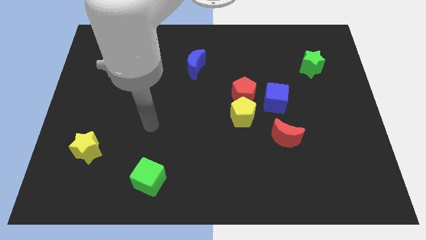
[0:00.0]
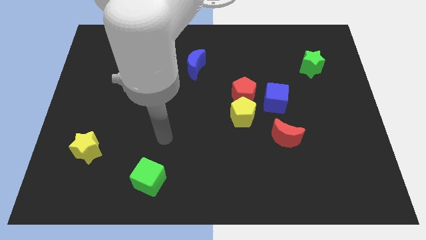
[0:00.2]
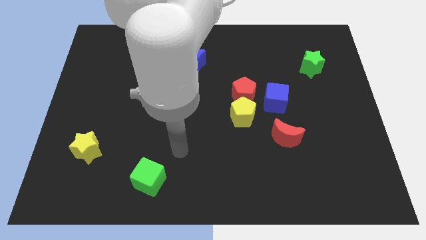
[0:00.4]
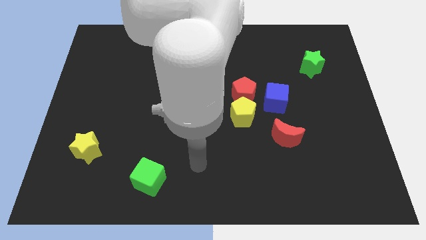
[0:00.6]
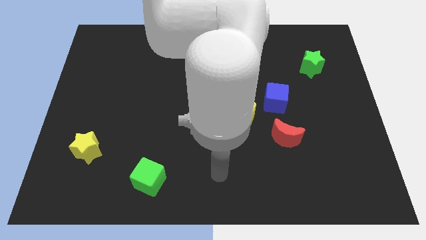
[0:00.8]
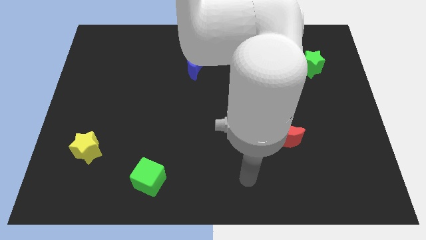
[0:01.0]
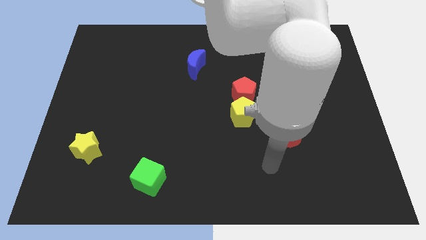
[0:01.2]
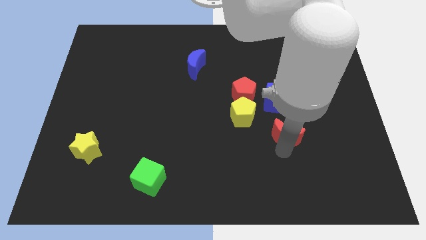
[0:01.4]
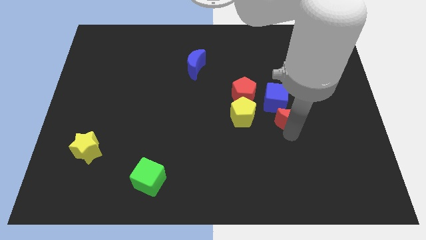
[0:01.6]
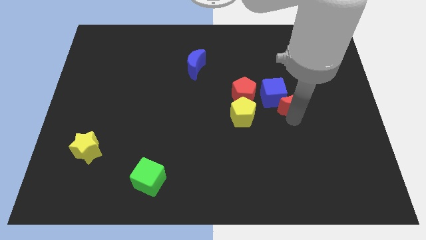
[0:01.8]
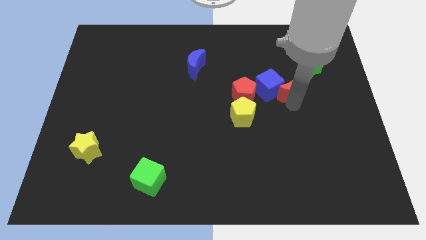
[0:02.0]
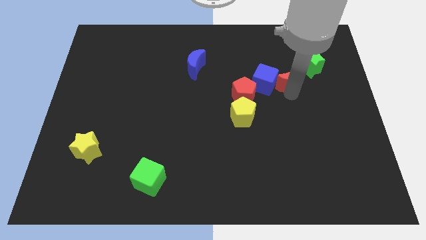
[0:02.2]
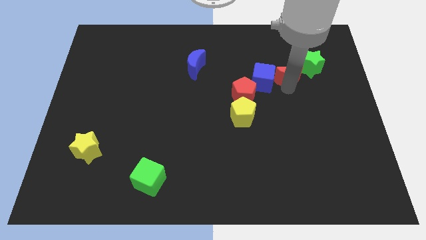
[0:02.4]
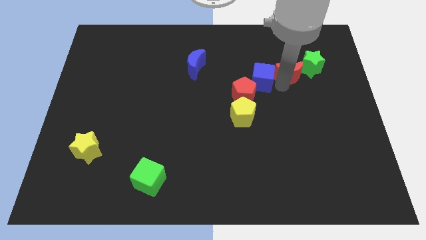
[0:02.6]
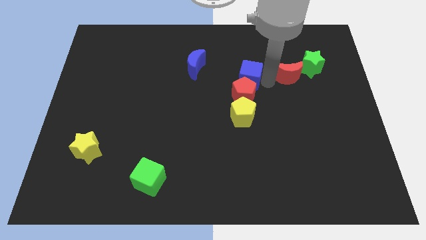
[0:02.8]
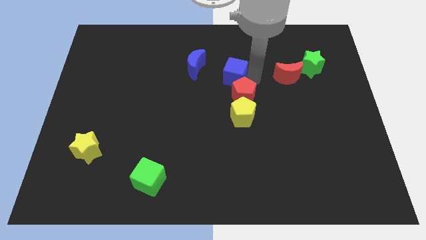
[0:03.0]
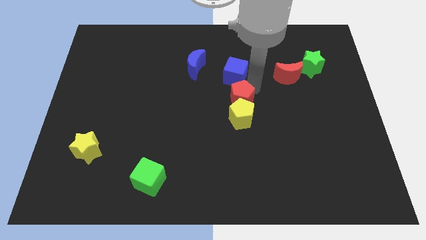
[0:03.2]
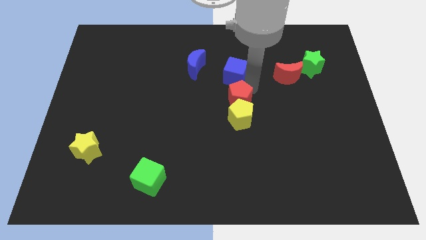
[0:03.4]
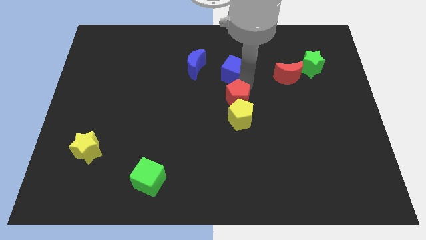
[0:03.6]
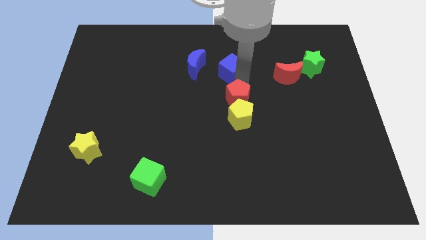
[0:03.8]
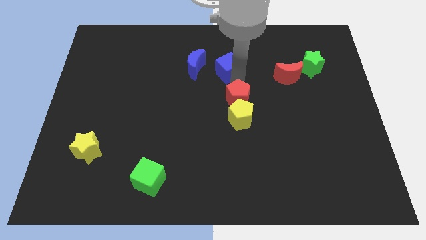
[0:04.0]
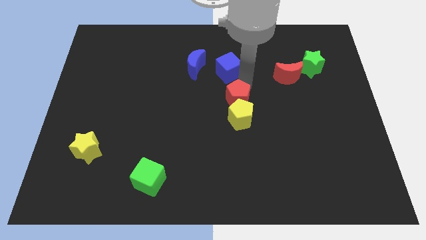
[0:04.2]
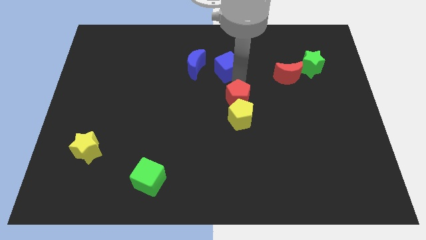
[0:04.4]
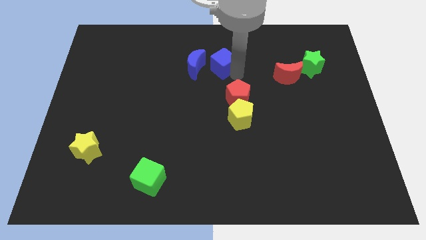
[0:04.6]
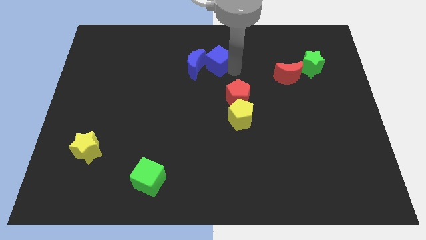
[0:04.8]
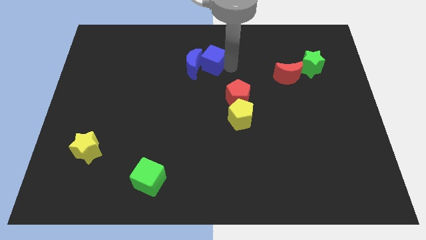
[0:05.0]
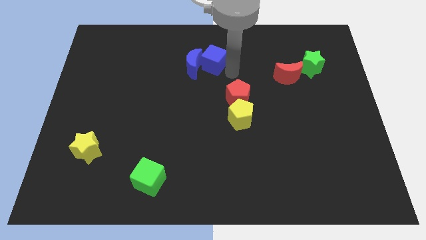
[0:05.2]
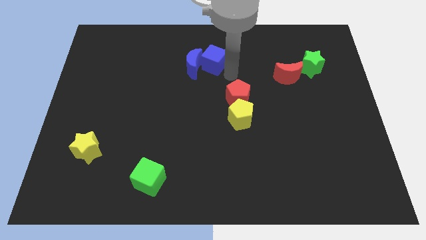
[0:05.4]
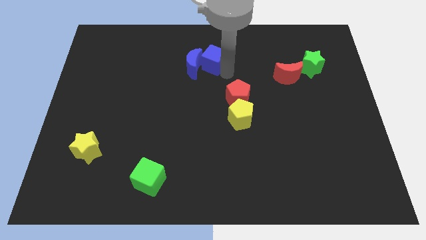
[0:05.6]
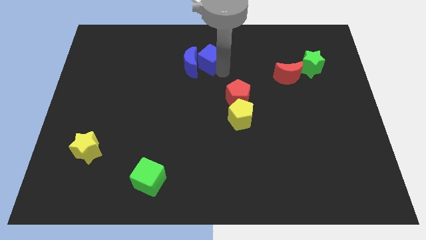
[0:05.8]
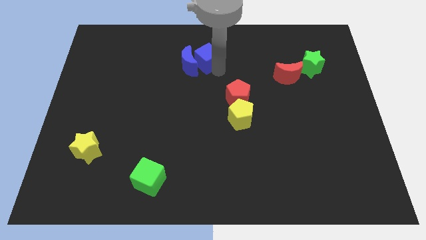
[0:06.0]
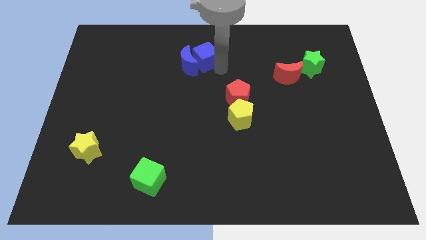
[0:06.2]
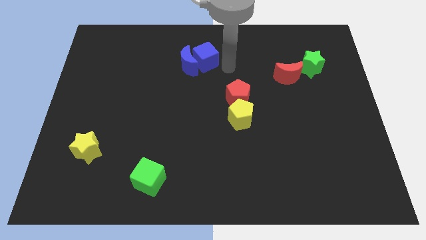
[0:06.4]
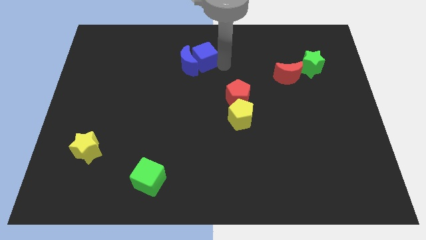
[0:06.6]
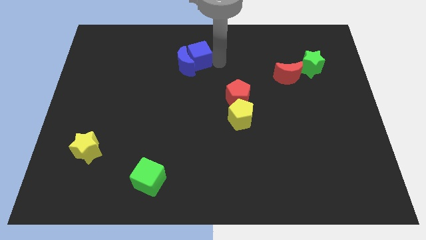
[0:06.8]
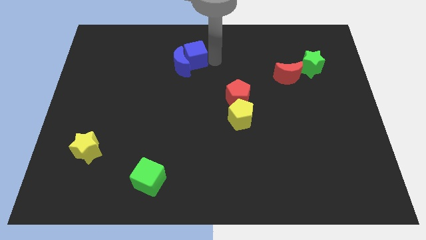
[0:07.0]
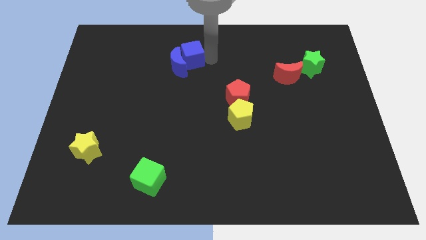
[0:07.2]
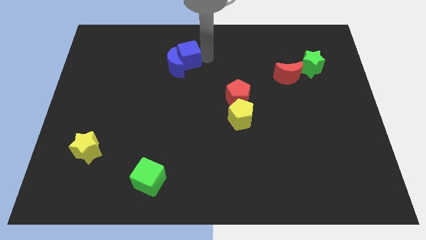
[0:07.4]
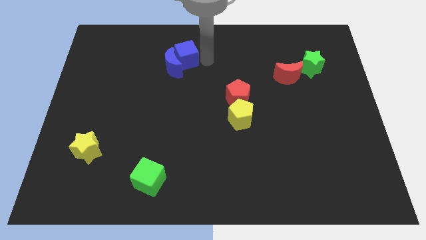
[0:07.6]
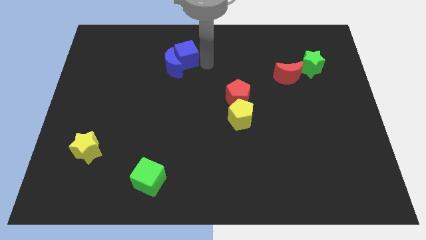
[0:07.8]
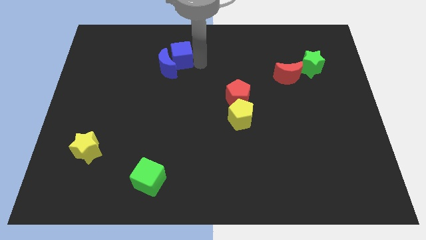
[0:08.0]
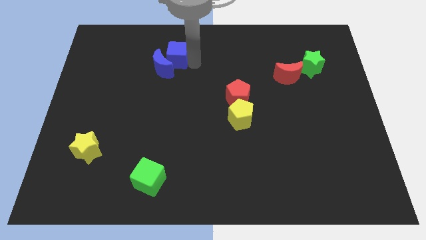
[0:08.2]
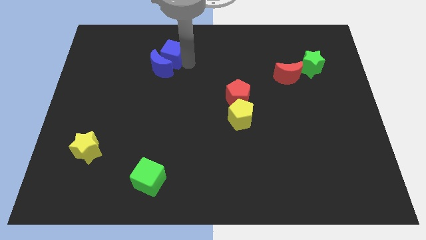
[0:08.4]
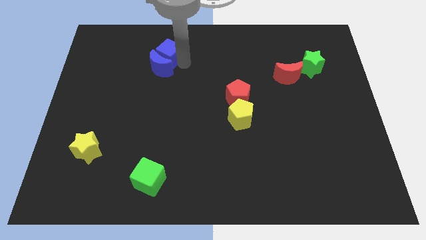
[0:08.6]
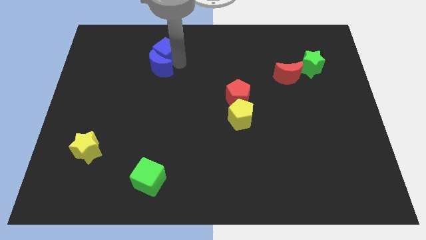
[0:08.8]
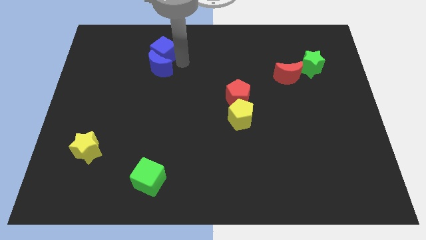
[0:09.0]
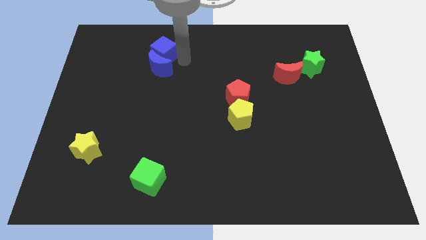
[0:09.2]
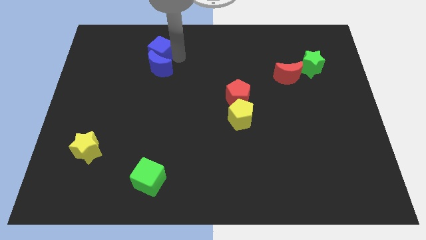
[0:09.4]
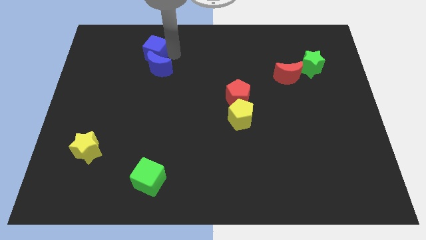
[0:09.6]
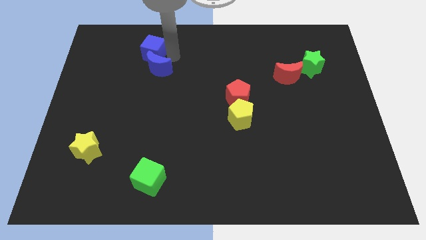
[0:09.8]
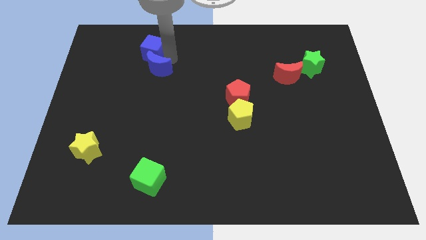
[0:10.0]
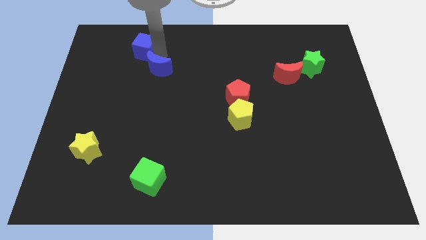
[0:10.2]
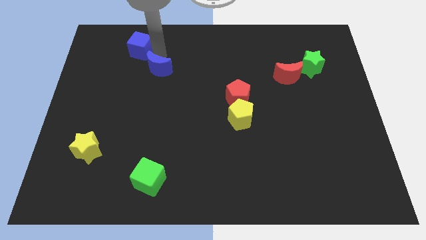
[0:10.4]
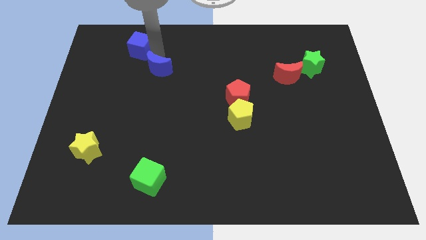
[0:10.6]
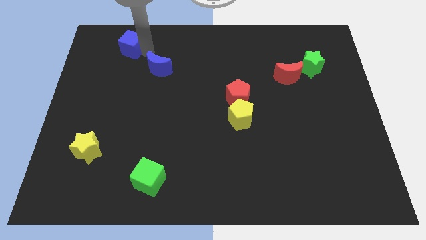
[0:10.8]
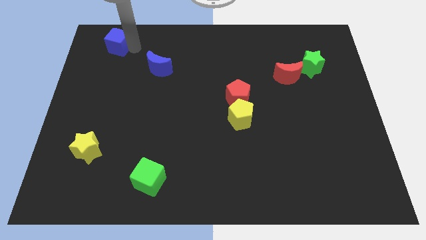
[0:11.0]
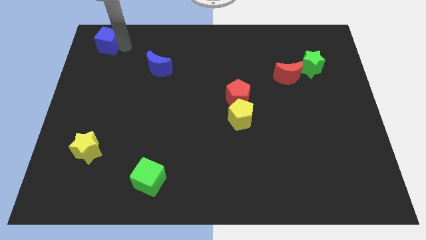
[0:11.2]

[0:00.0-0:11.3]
move the blue cube to the upper left corner
